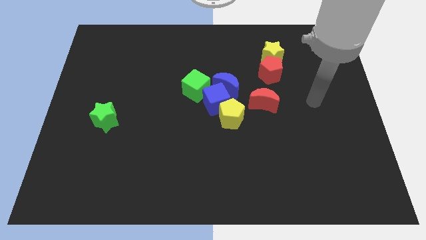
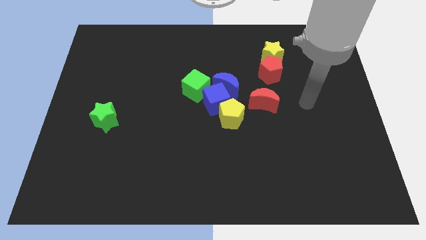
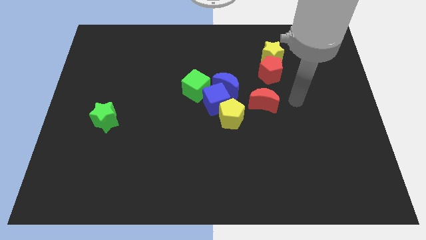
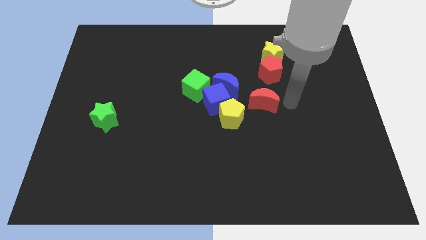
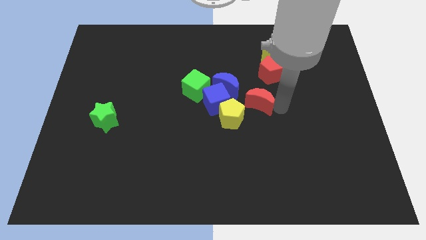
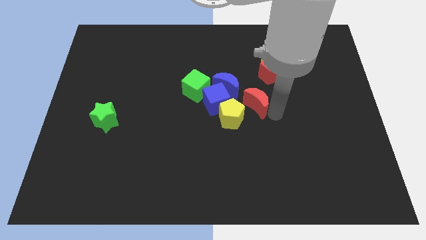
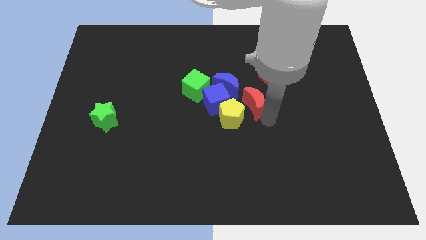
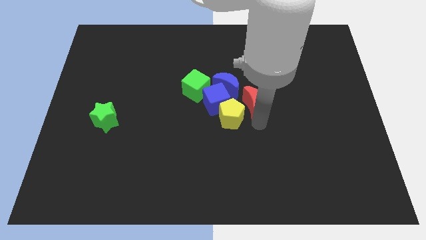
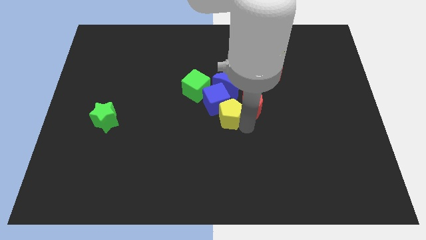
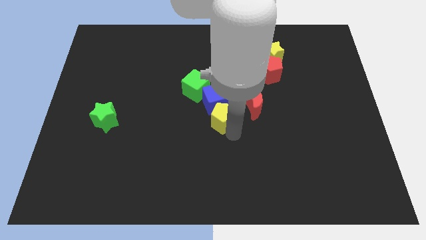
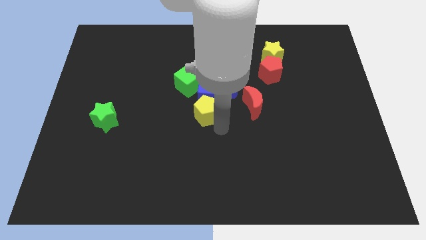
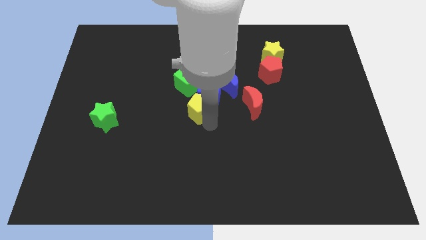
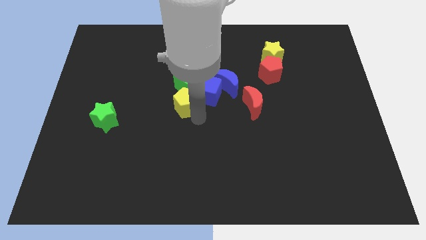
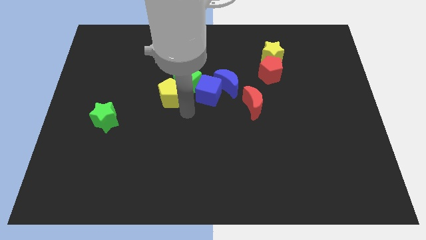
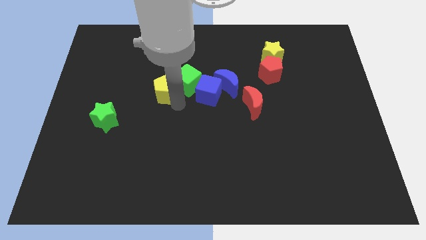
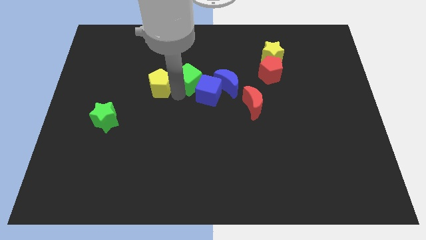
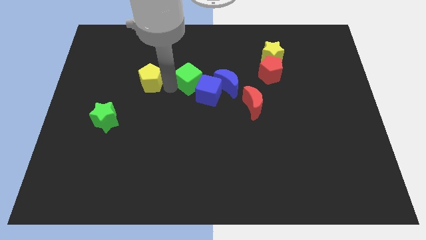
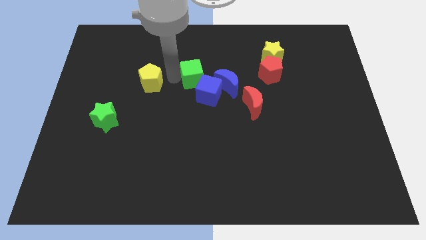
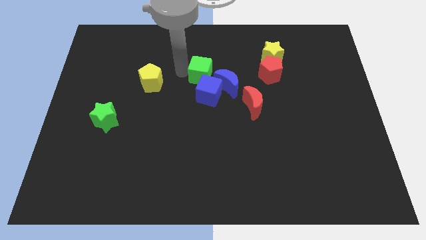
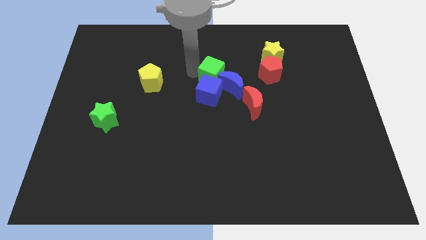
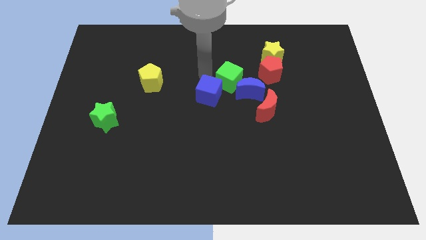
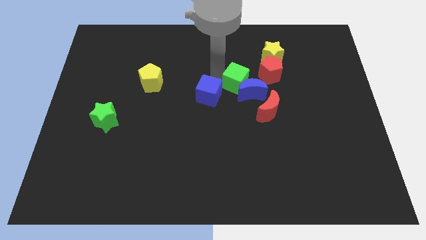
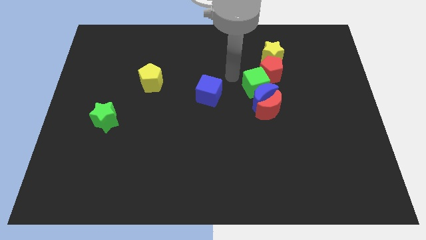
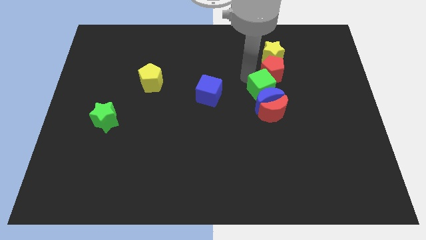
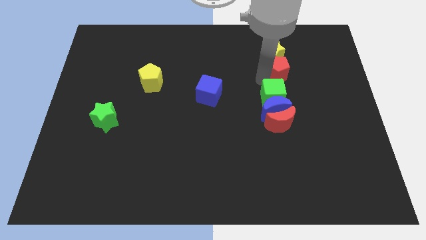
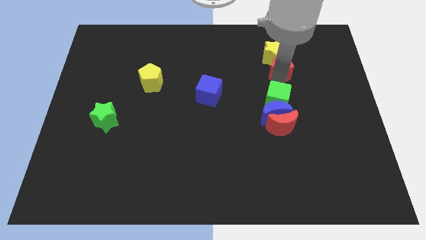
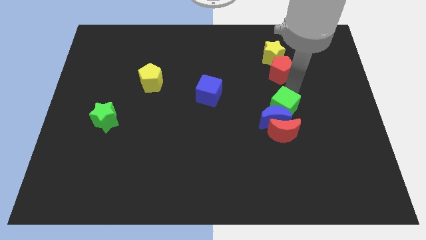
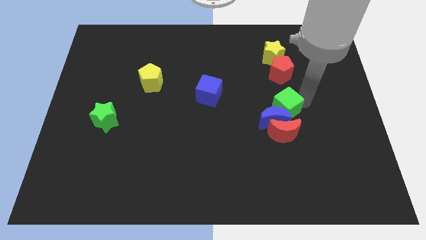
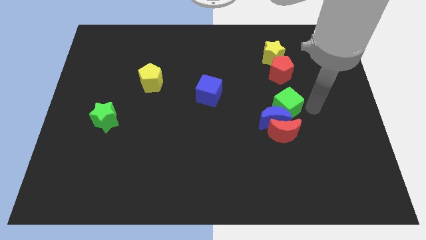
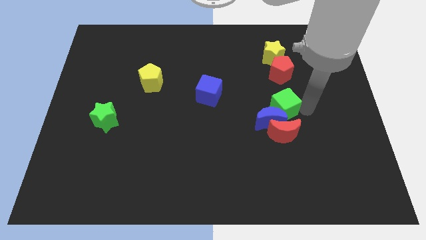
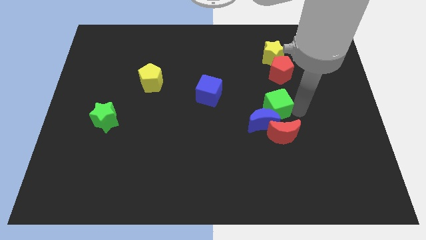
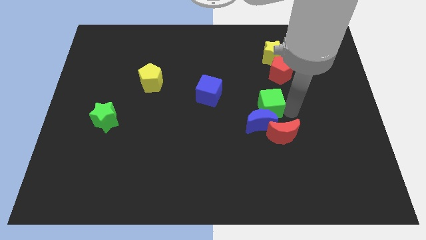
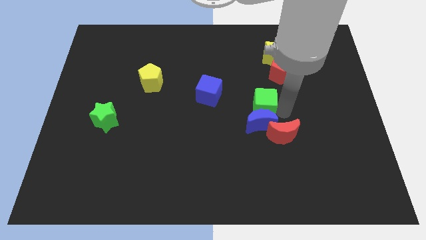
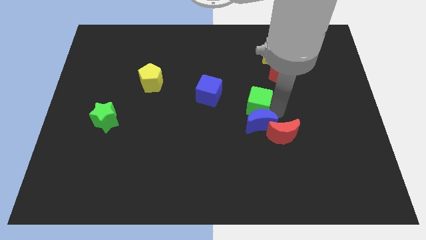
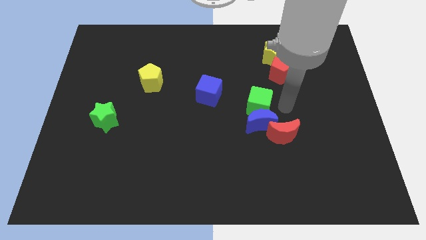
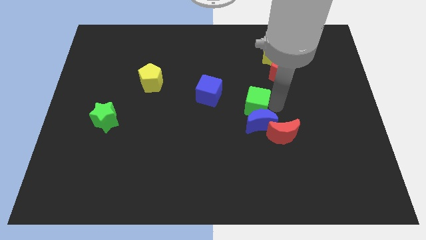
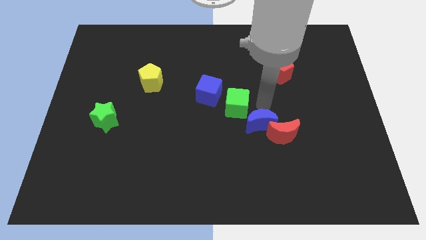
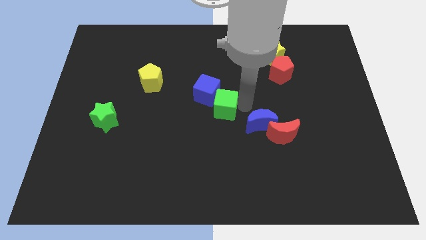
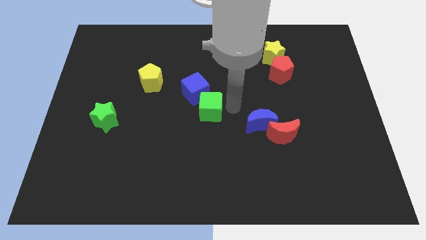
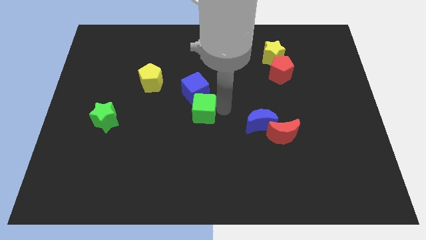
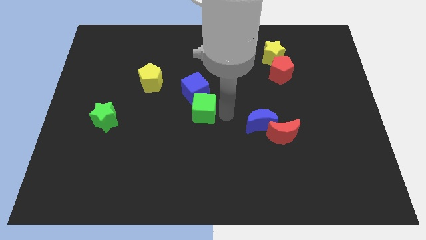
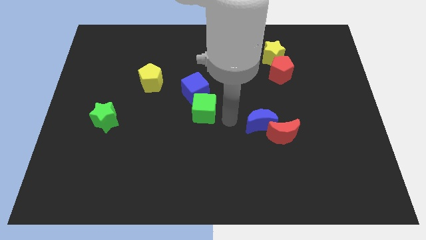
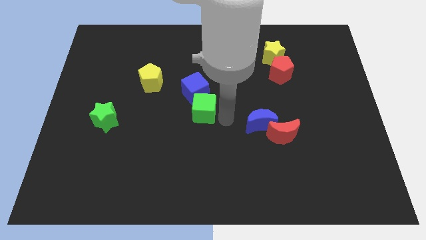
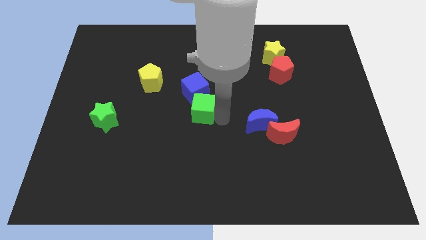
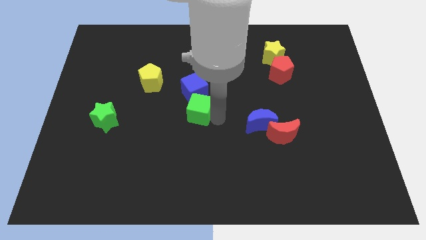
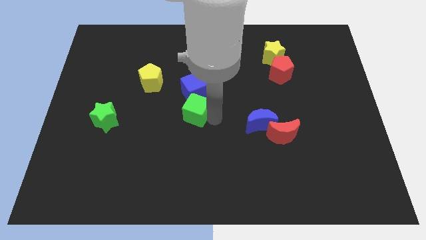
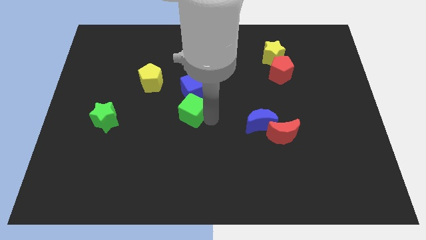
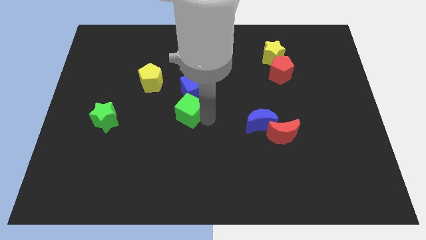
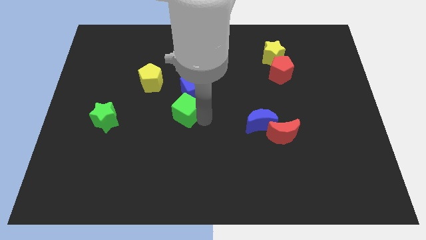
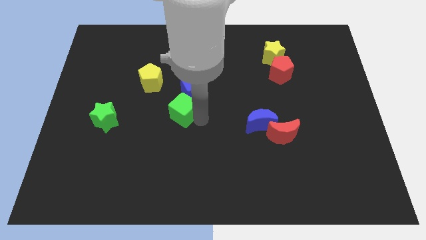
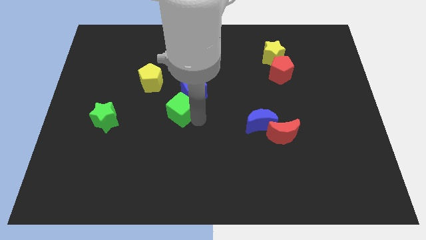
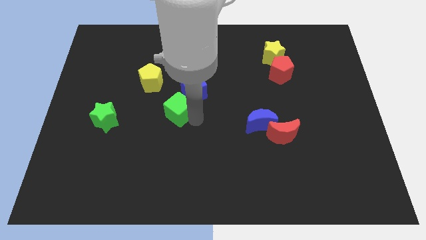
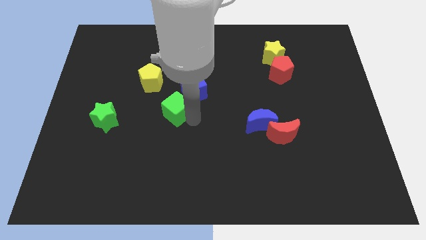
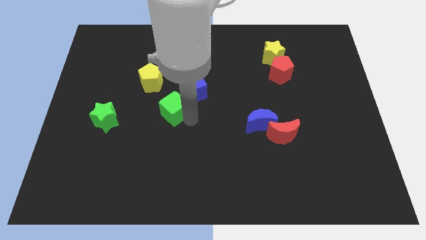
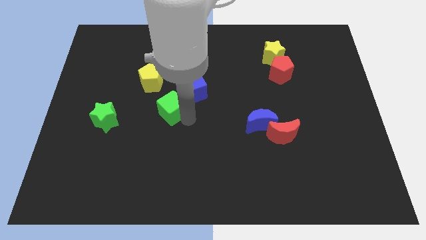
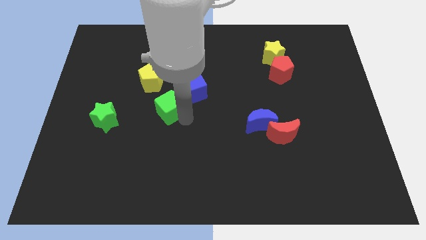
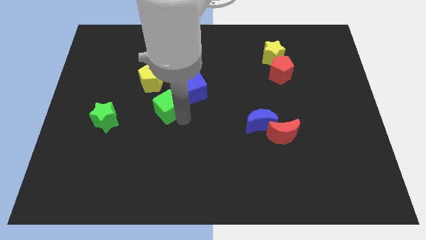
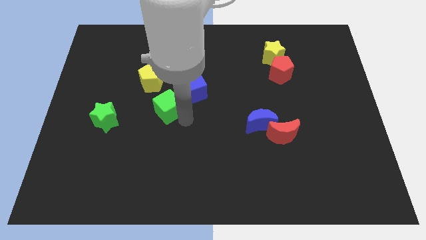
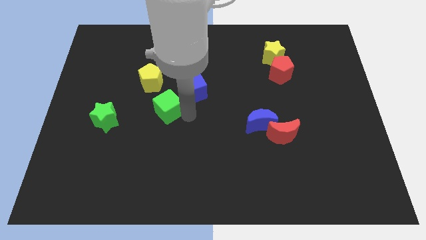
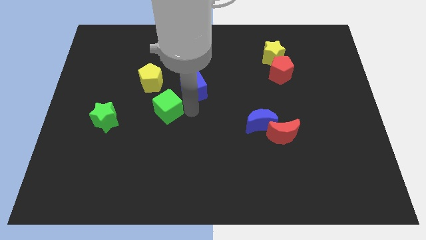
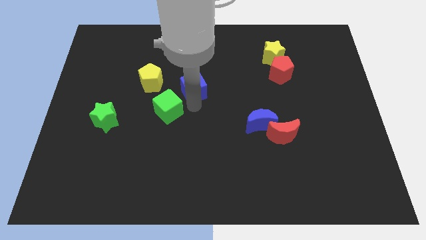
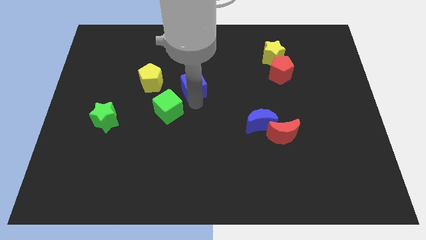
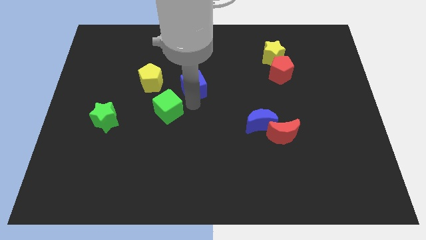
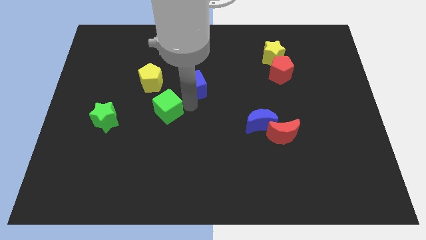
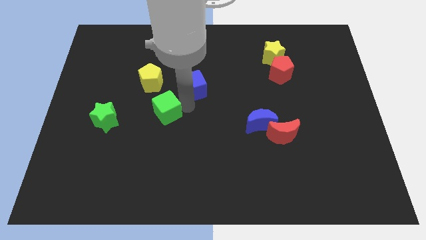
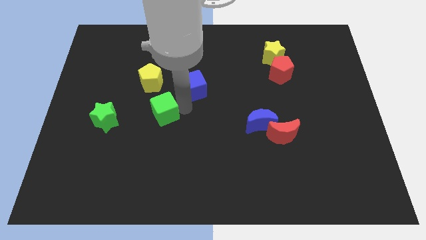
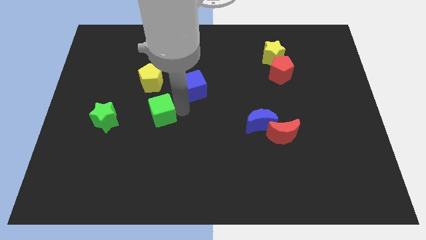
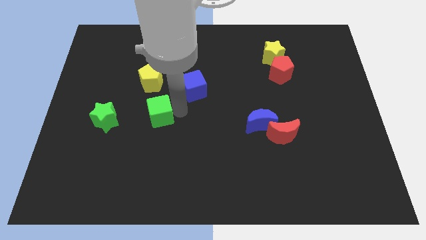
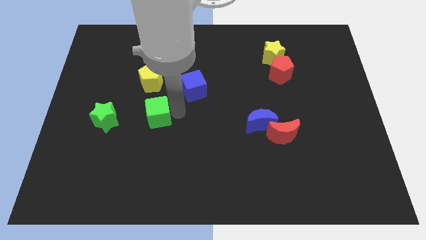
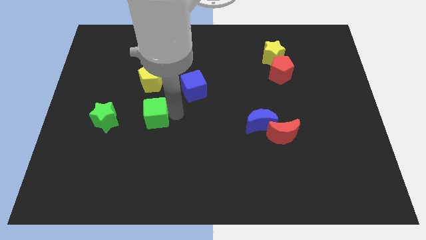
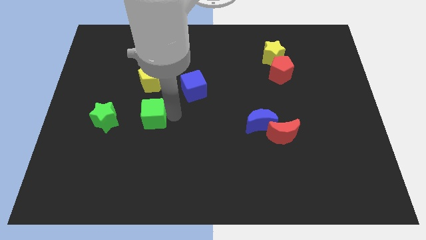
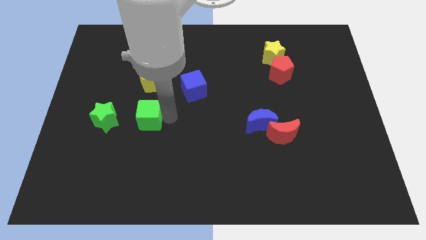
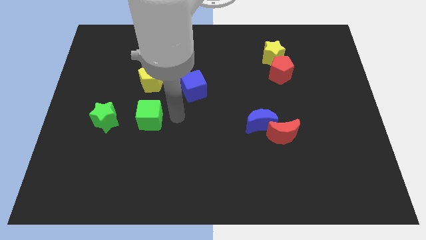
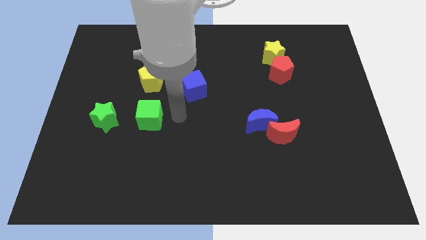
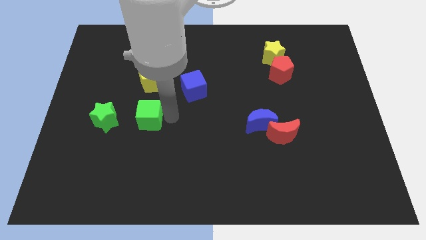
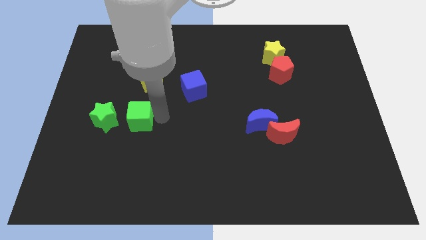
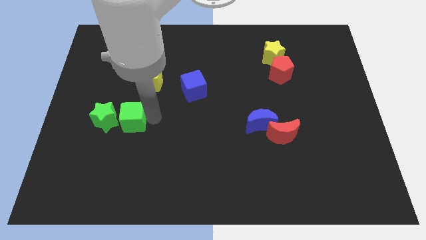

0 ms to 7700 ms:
push the green cube next to the green star
